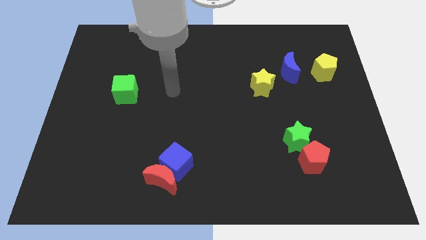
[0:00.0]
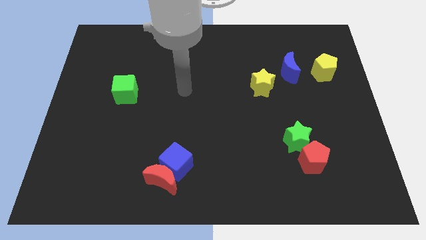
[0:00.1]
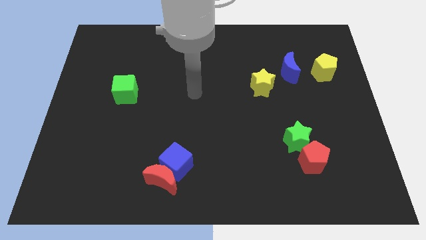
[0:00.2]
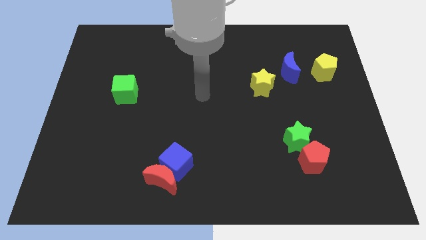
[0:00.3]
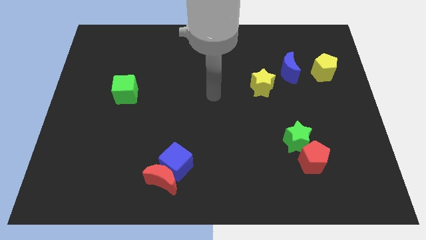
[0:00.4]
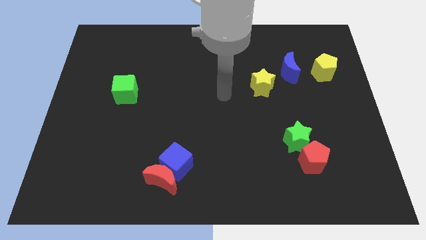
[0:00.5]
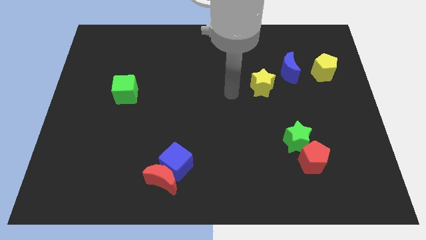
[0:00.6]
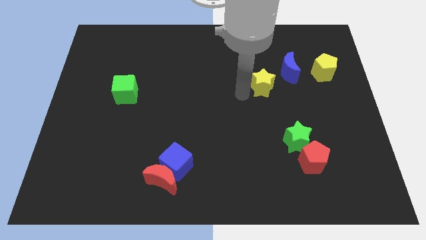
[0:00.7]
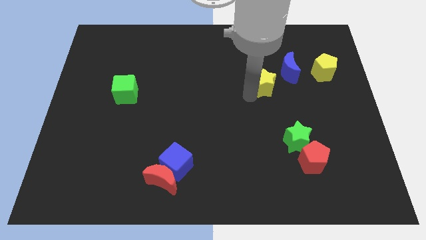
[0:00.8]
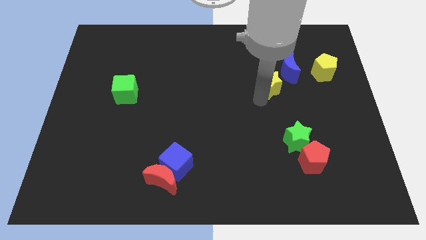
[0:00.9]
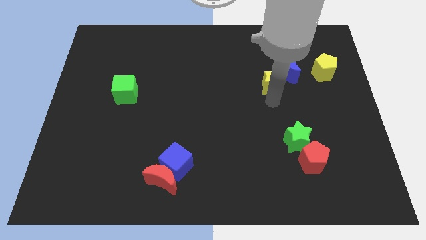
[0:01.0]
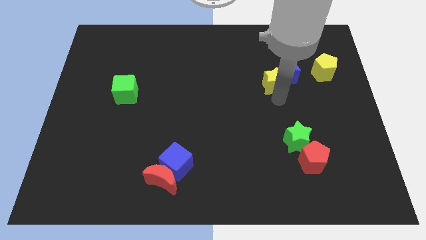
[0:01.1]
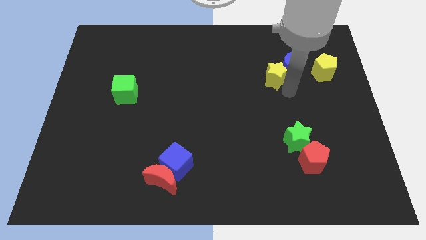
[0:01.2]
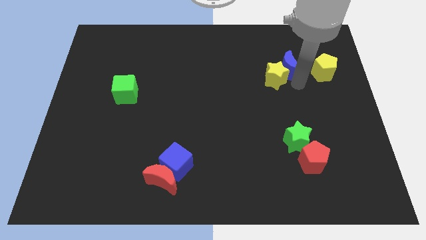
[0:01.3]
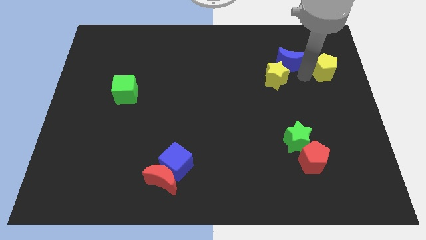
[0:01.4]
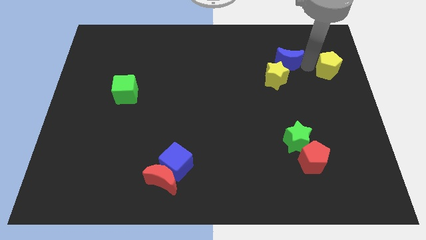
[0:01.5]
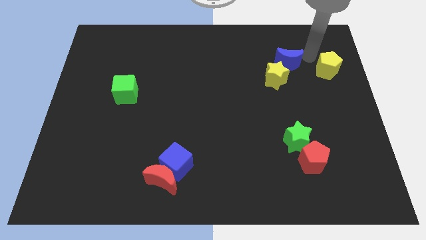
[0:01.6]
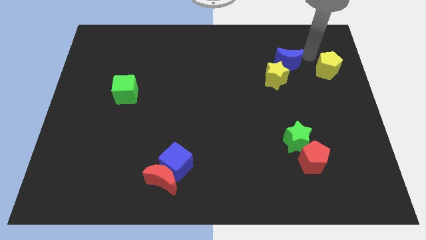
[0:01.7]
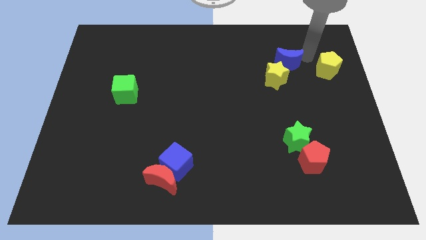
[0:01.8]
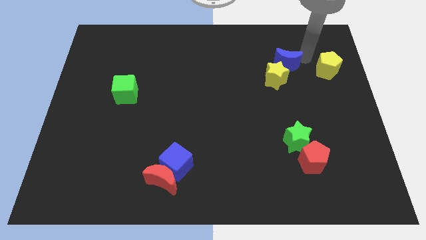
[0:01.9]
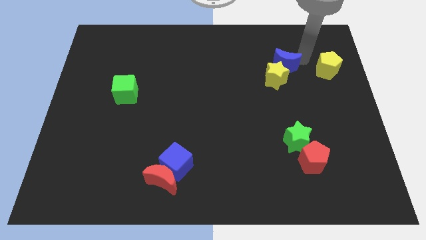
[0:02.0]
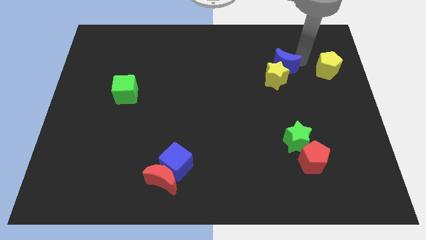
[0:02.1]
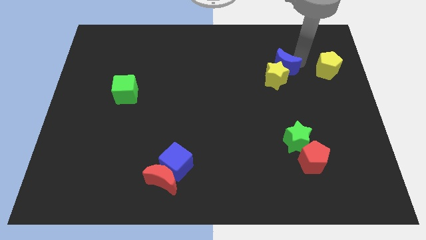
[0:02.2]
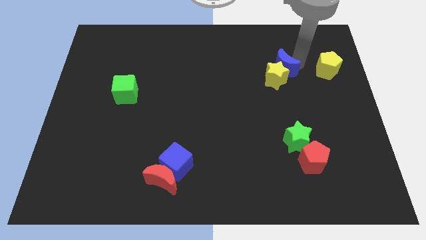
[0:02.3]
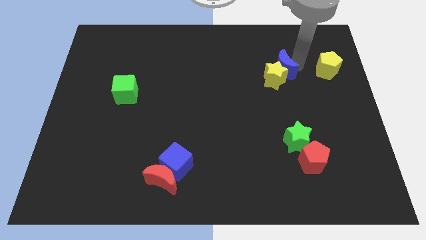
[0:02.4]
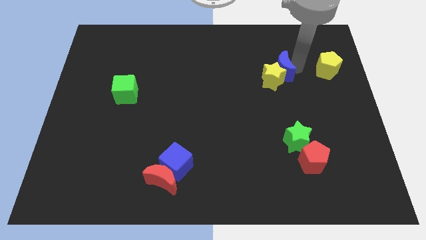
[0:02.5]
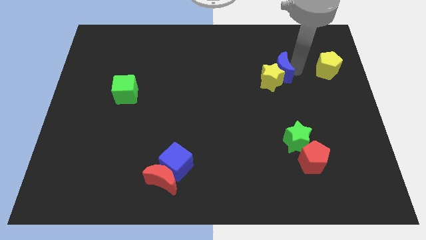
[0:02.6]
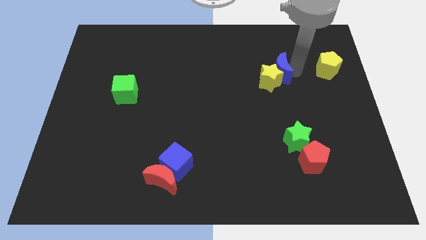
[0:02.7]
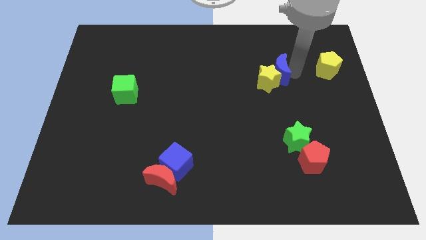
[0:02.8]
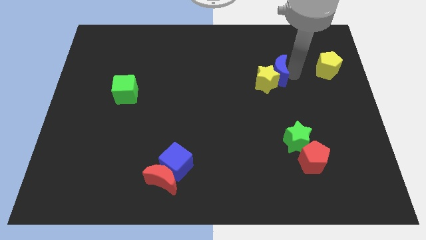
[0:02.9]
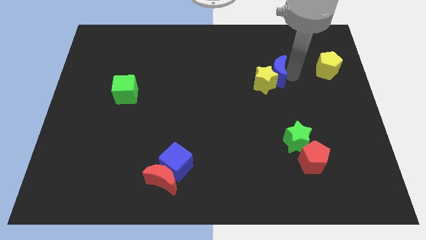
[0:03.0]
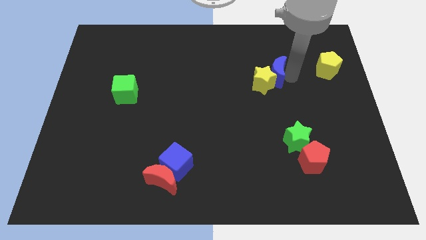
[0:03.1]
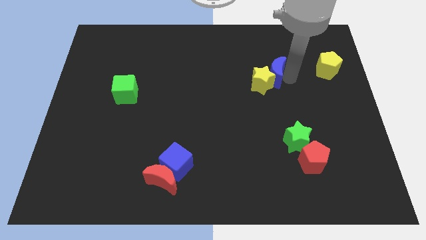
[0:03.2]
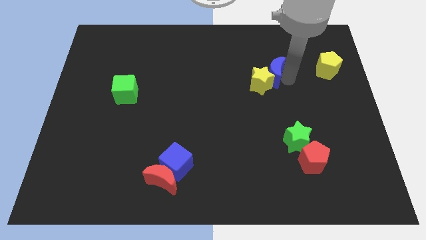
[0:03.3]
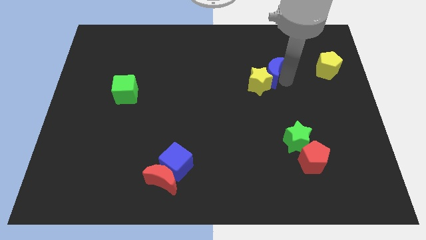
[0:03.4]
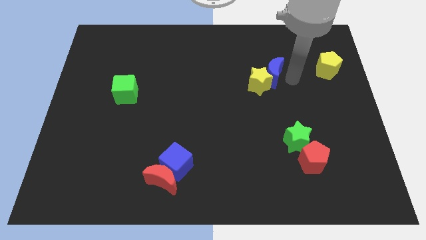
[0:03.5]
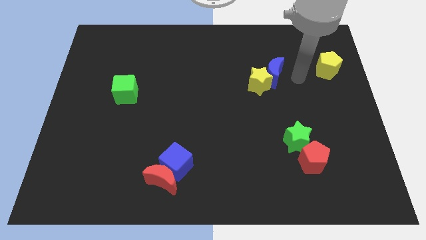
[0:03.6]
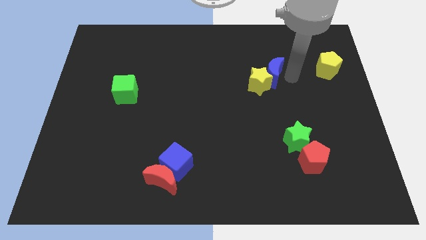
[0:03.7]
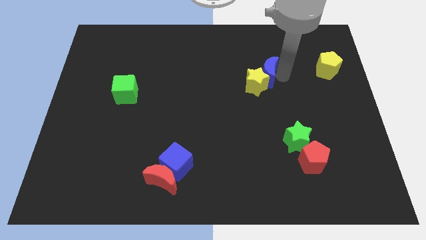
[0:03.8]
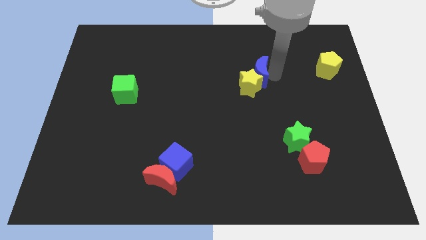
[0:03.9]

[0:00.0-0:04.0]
move the blue moon somewhat left

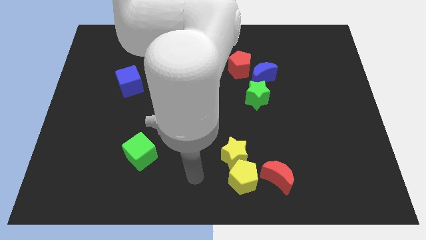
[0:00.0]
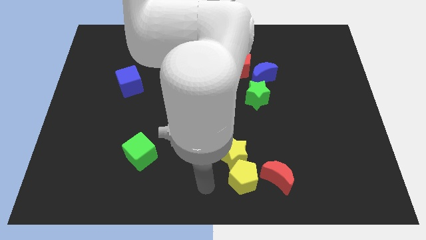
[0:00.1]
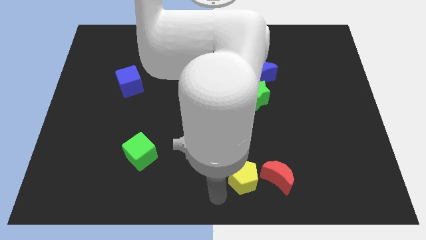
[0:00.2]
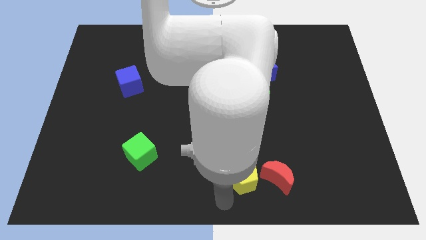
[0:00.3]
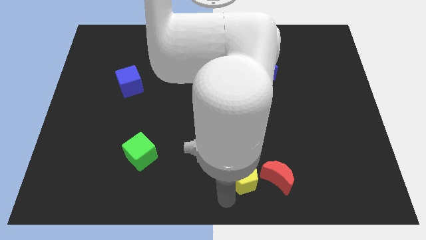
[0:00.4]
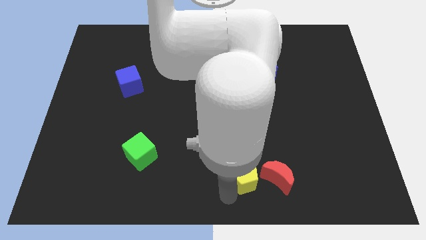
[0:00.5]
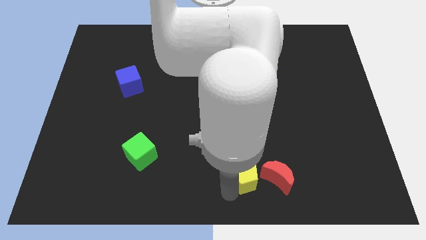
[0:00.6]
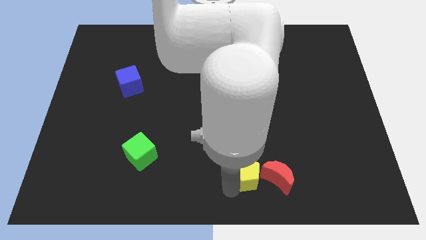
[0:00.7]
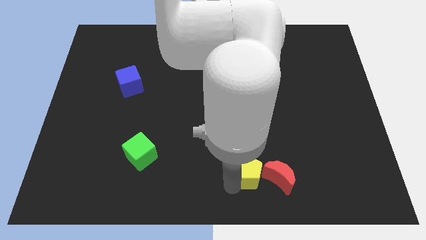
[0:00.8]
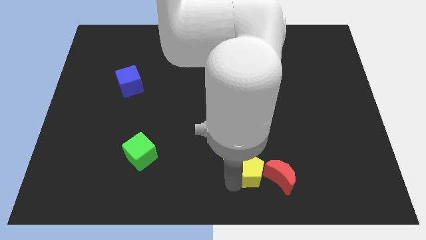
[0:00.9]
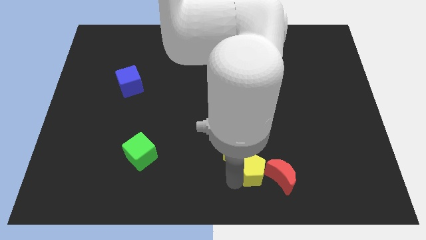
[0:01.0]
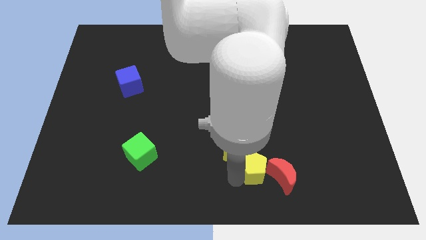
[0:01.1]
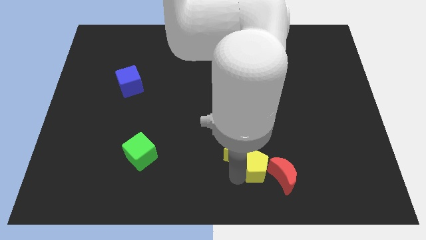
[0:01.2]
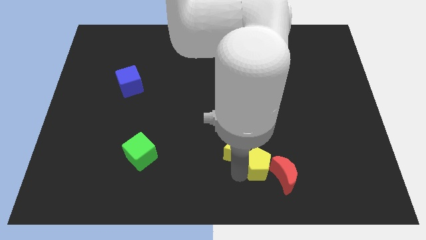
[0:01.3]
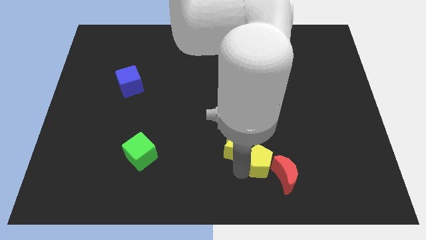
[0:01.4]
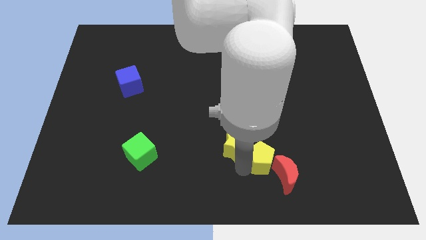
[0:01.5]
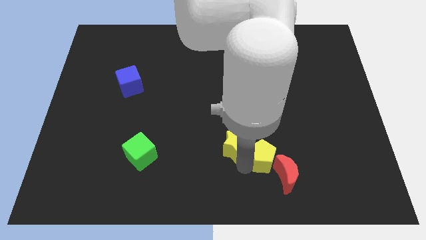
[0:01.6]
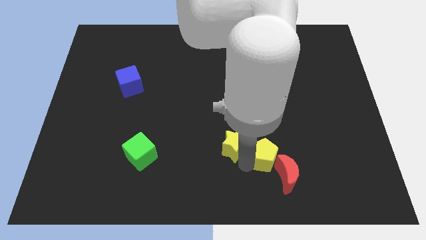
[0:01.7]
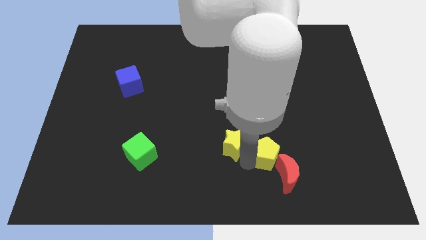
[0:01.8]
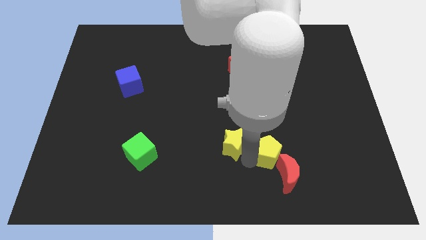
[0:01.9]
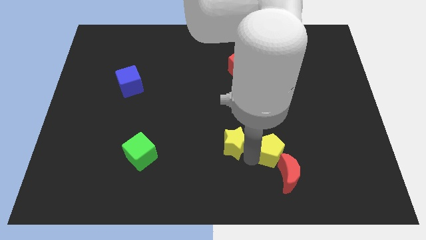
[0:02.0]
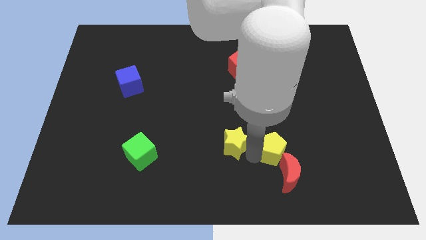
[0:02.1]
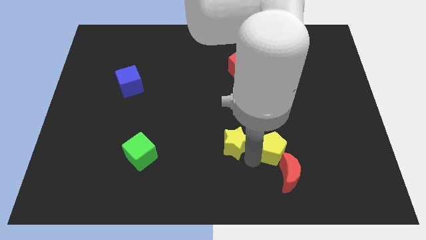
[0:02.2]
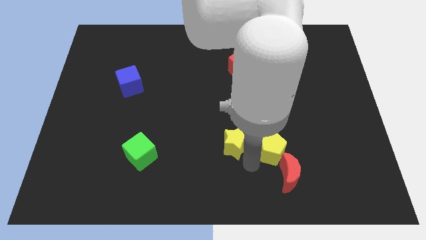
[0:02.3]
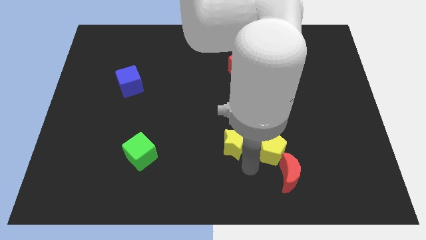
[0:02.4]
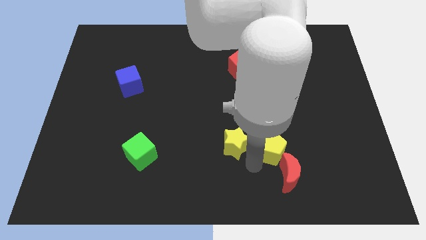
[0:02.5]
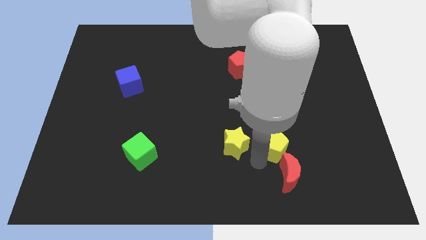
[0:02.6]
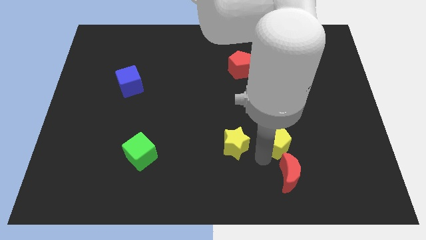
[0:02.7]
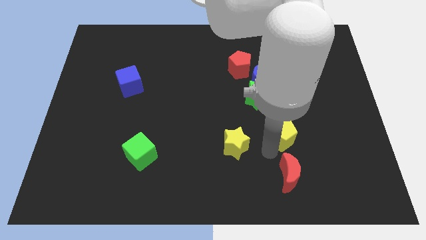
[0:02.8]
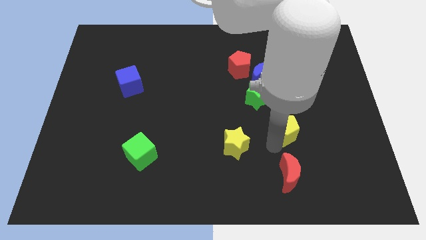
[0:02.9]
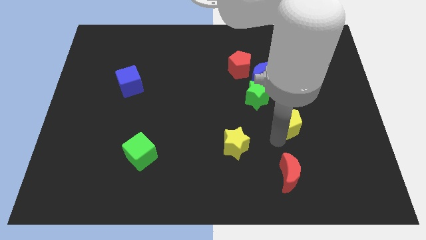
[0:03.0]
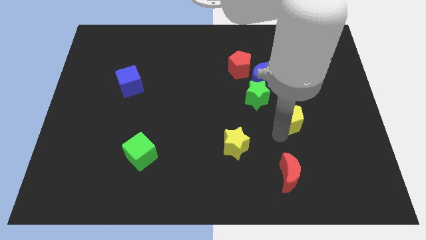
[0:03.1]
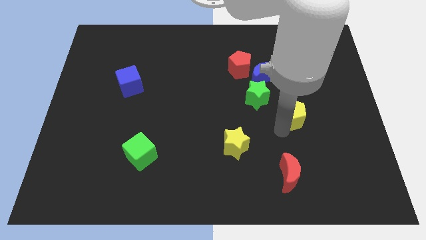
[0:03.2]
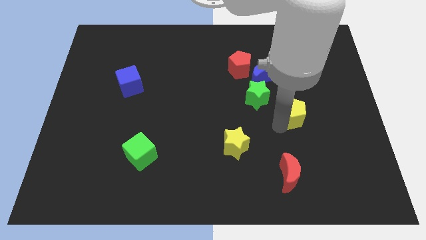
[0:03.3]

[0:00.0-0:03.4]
slide the yellow pentagon upwards and to the right

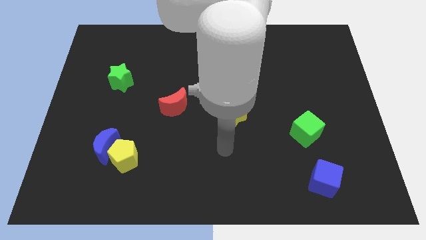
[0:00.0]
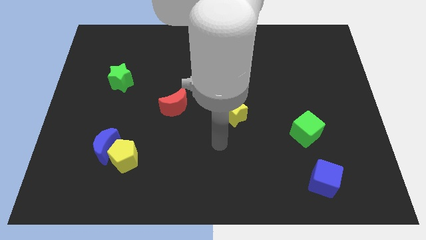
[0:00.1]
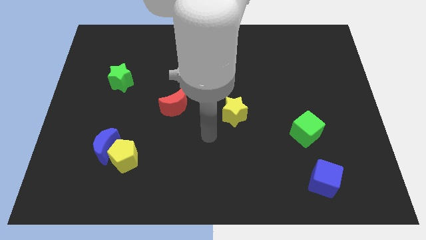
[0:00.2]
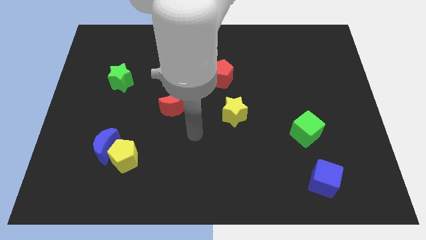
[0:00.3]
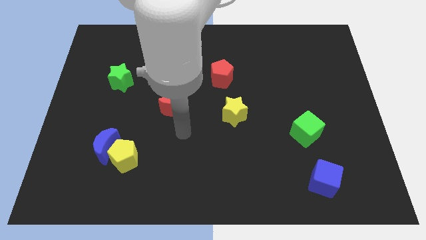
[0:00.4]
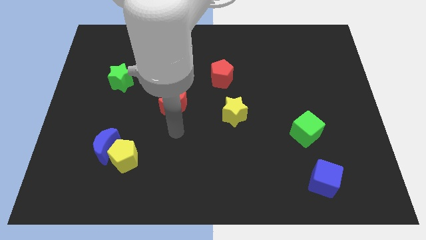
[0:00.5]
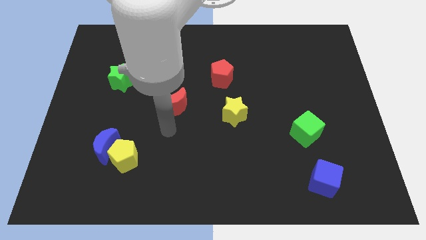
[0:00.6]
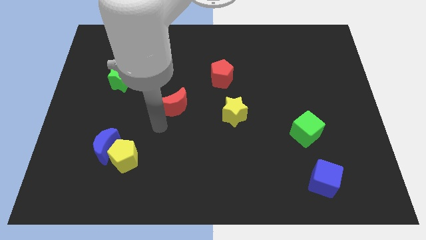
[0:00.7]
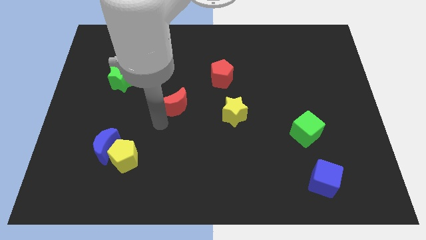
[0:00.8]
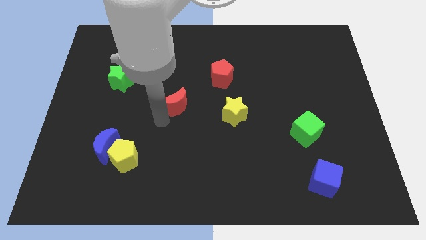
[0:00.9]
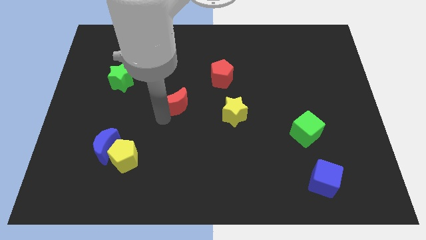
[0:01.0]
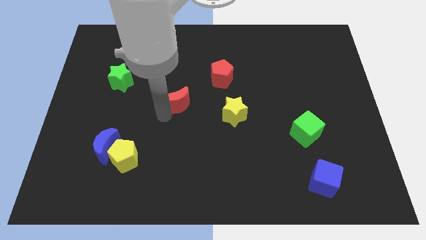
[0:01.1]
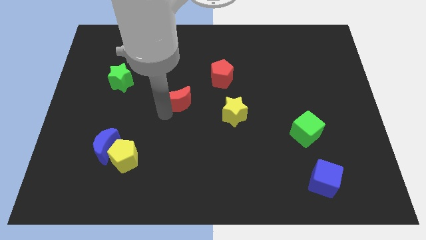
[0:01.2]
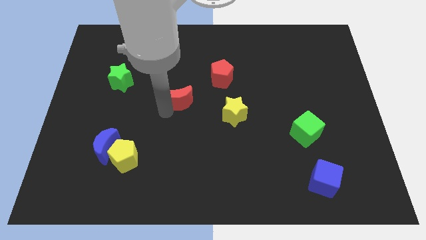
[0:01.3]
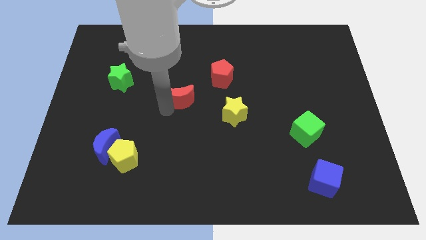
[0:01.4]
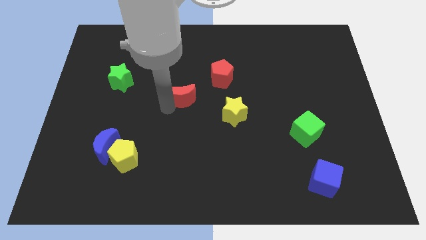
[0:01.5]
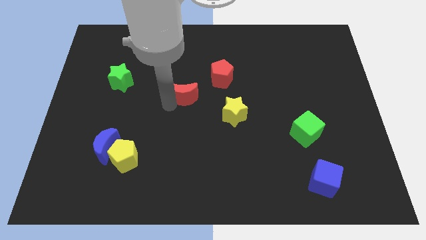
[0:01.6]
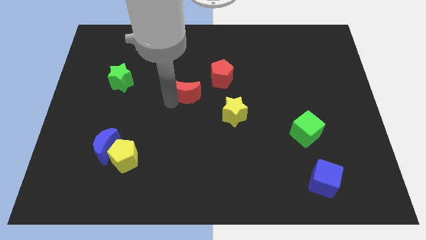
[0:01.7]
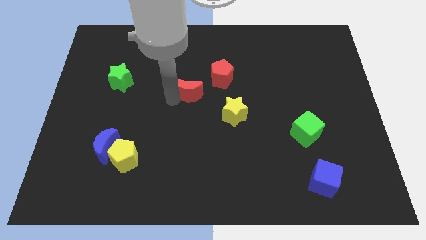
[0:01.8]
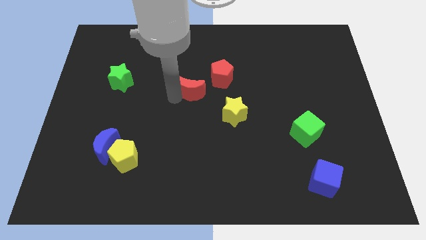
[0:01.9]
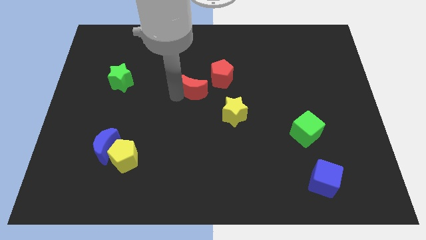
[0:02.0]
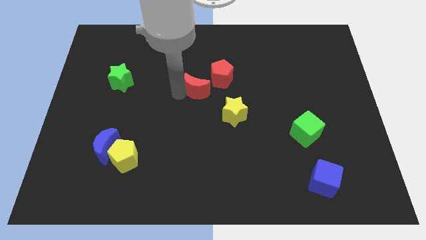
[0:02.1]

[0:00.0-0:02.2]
slightly move the red moon up and then to the right
